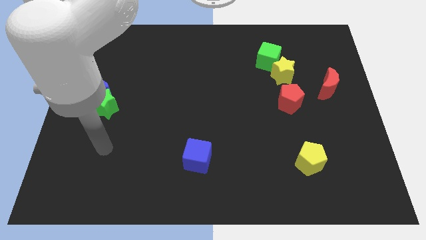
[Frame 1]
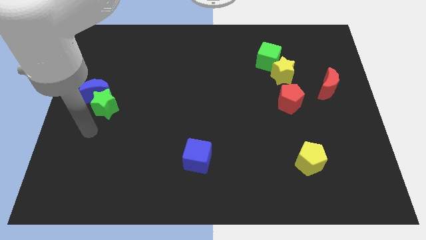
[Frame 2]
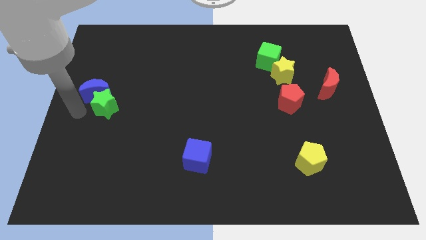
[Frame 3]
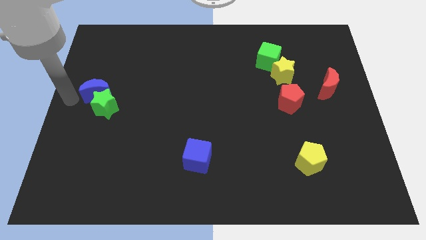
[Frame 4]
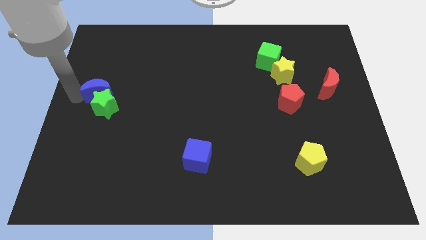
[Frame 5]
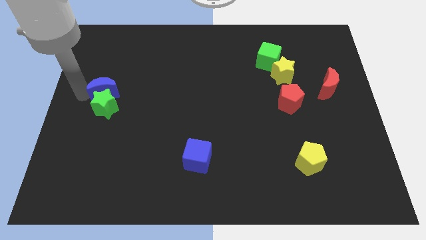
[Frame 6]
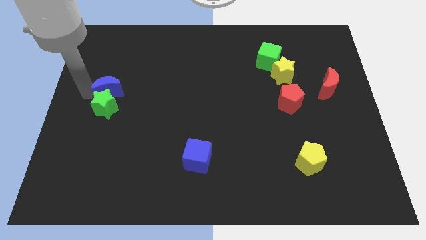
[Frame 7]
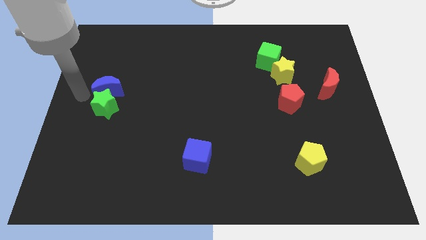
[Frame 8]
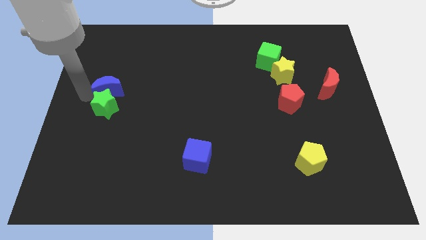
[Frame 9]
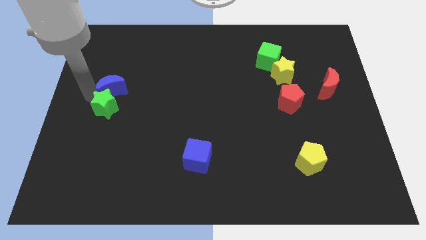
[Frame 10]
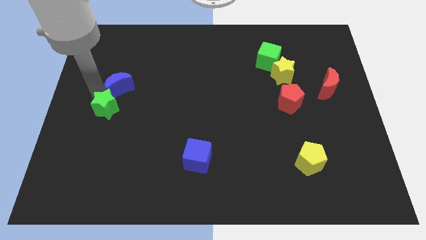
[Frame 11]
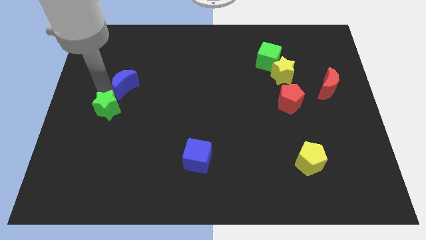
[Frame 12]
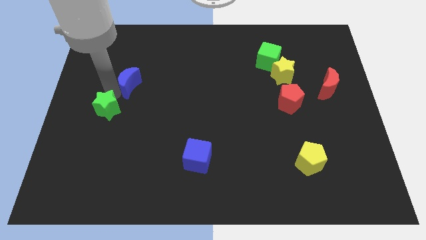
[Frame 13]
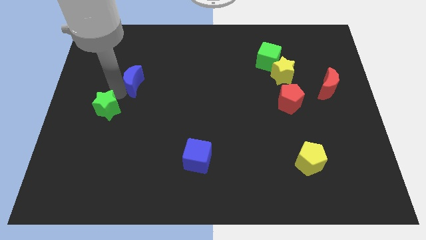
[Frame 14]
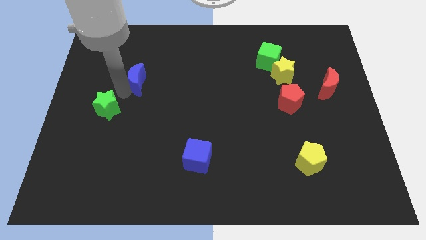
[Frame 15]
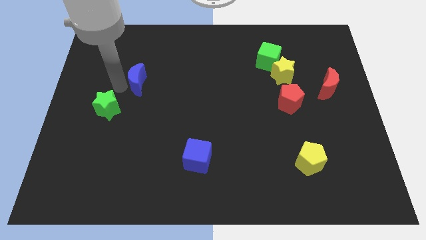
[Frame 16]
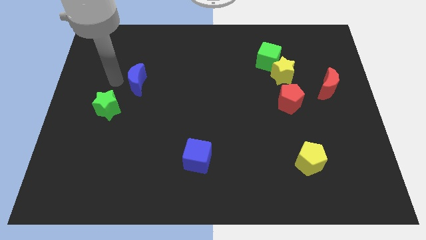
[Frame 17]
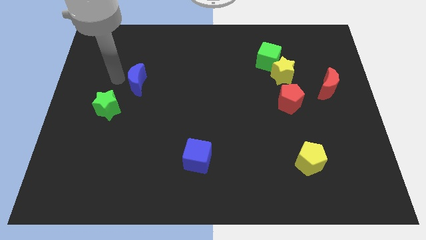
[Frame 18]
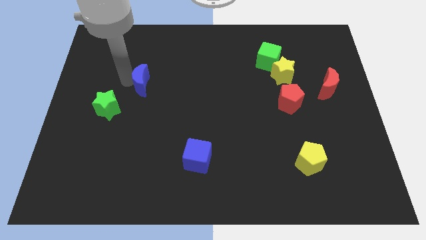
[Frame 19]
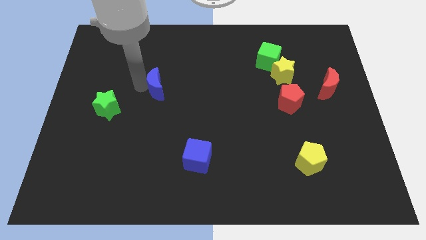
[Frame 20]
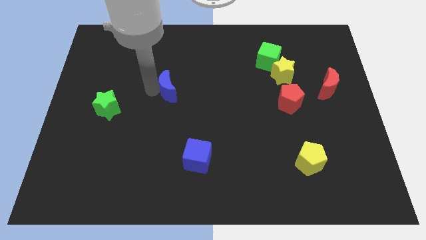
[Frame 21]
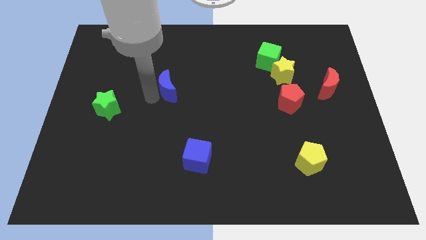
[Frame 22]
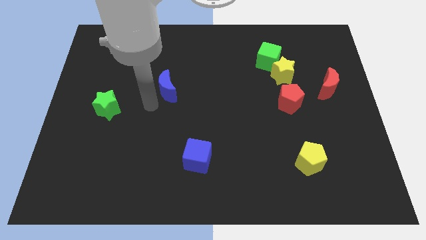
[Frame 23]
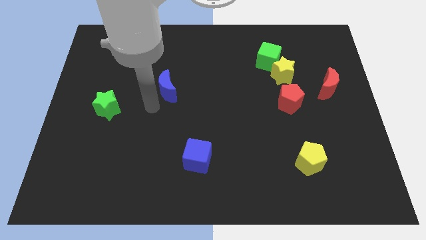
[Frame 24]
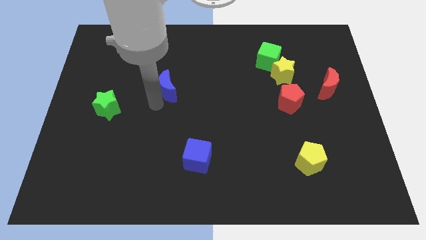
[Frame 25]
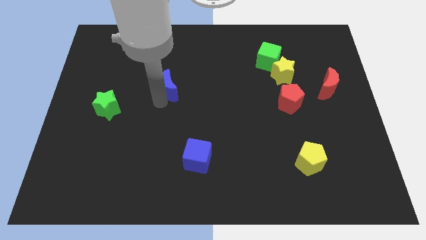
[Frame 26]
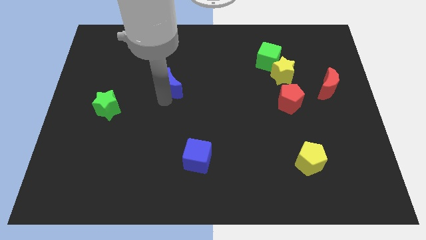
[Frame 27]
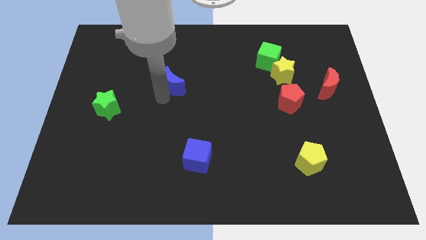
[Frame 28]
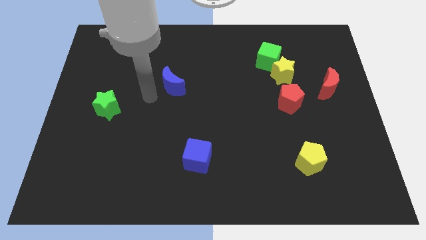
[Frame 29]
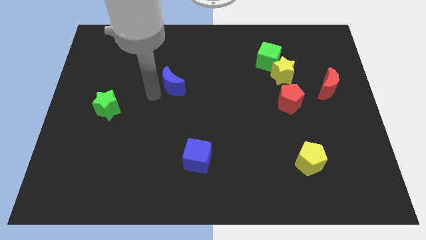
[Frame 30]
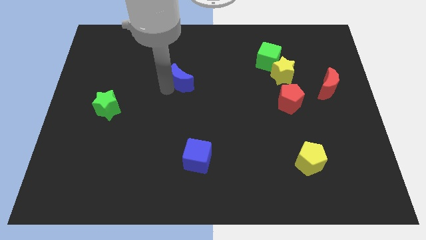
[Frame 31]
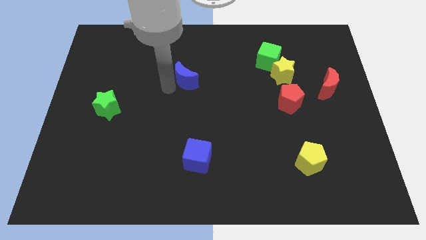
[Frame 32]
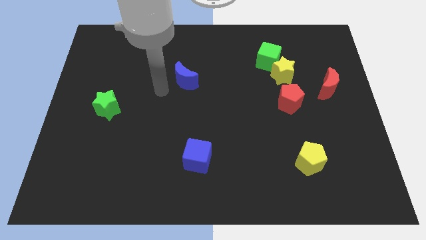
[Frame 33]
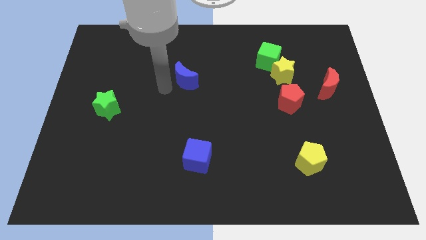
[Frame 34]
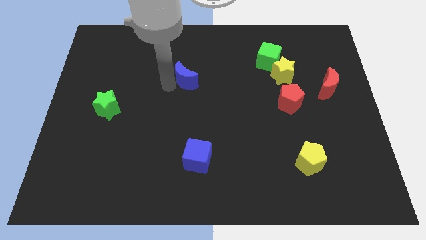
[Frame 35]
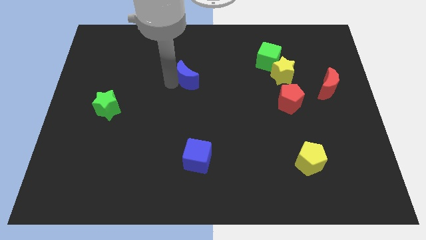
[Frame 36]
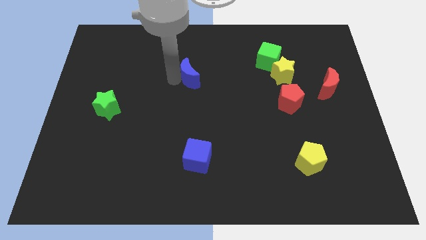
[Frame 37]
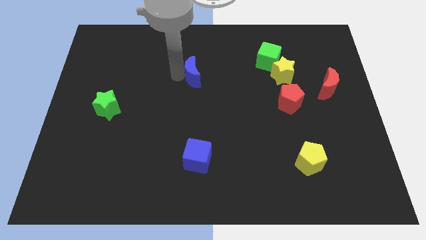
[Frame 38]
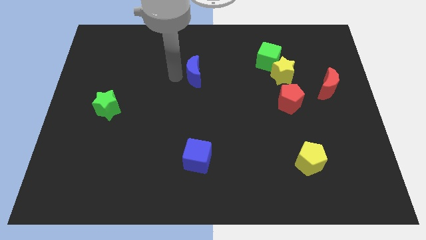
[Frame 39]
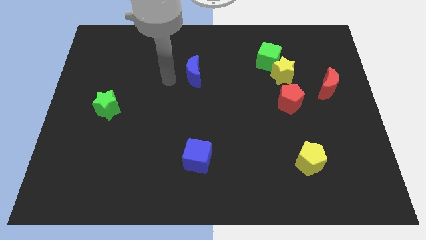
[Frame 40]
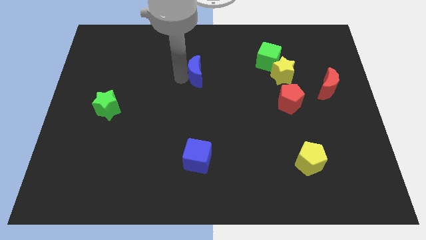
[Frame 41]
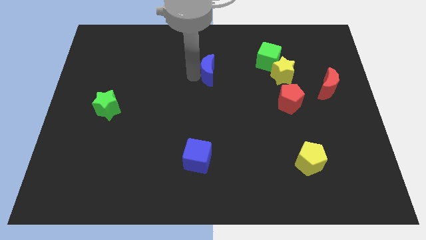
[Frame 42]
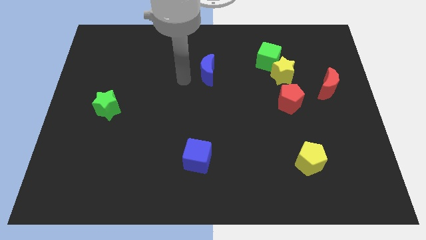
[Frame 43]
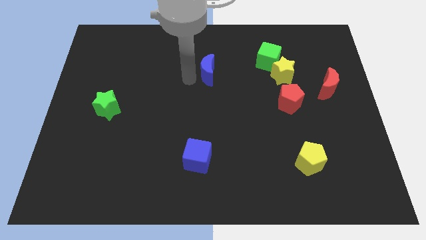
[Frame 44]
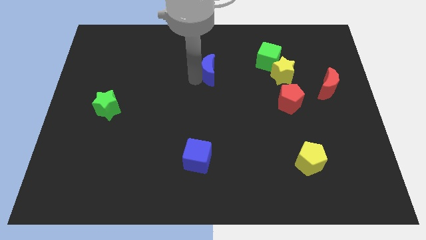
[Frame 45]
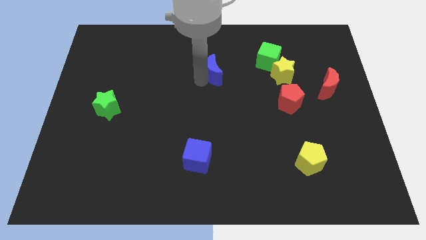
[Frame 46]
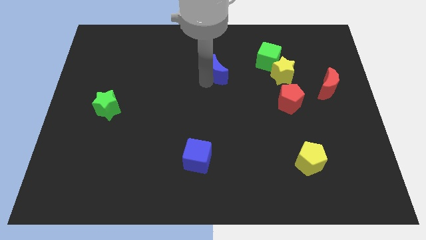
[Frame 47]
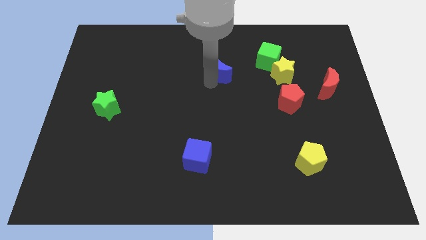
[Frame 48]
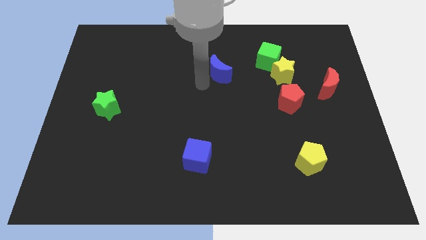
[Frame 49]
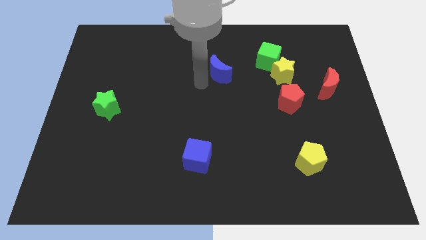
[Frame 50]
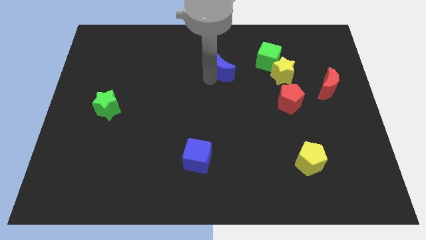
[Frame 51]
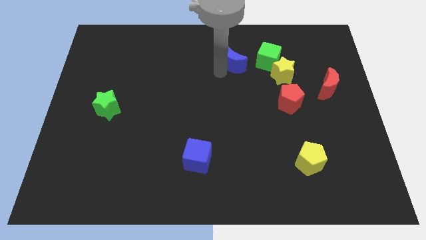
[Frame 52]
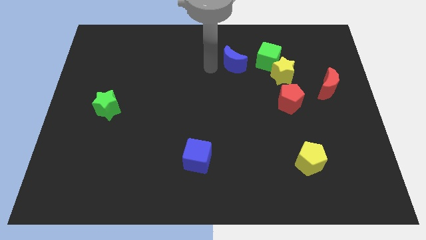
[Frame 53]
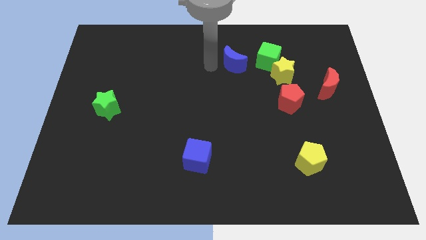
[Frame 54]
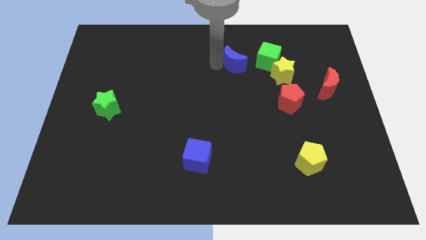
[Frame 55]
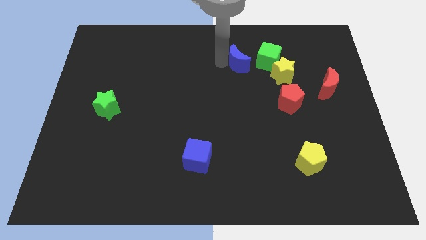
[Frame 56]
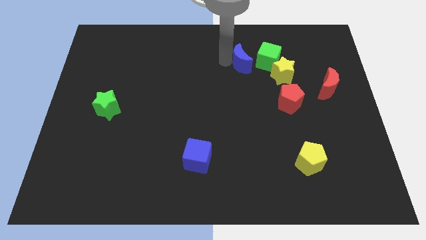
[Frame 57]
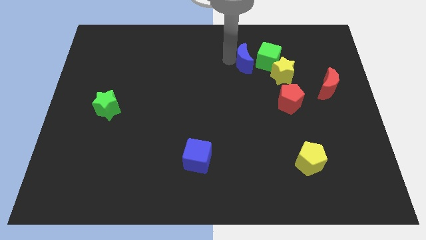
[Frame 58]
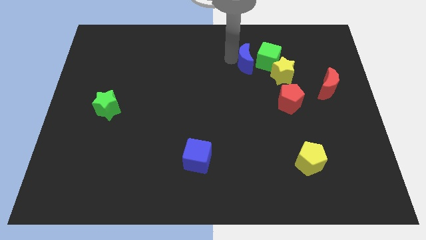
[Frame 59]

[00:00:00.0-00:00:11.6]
put the blue moon to the green cube

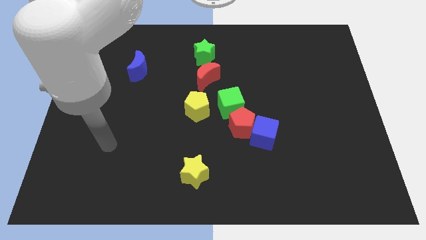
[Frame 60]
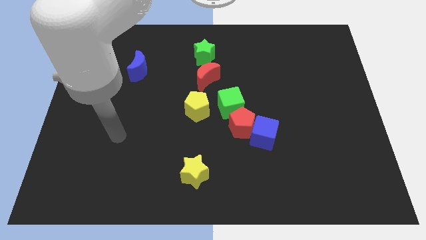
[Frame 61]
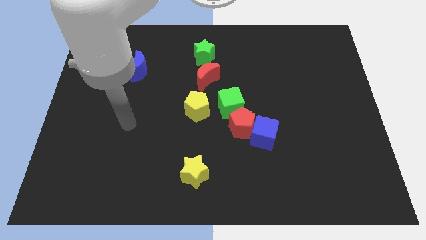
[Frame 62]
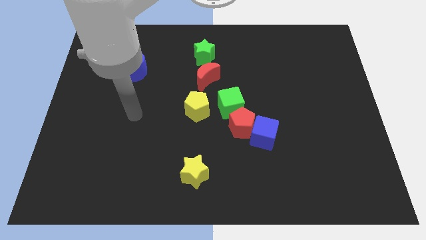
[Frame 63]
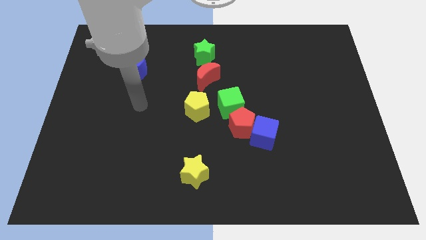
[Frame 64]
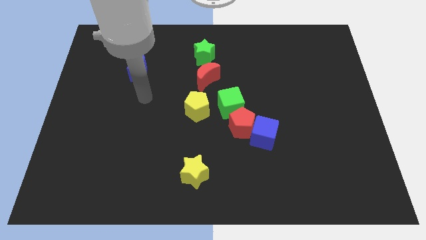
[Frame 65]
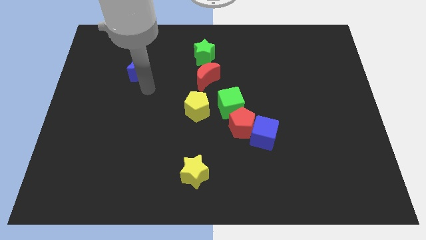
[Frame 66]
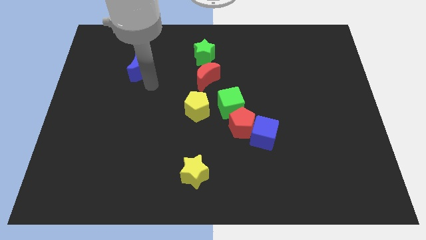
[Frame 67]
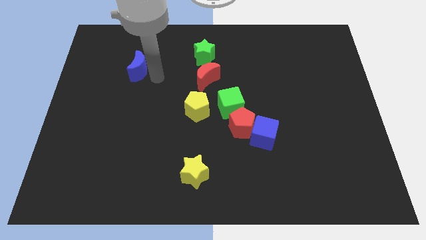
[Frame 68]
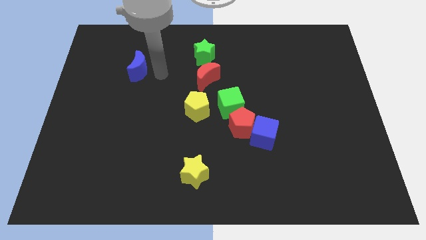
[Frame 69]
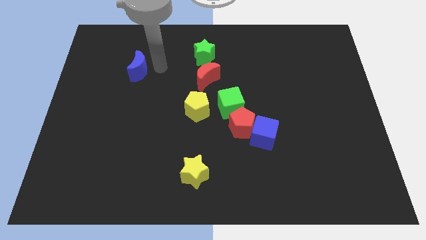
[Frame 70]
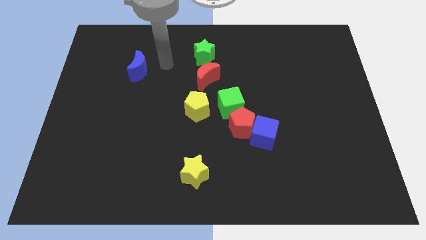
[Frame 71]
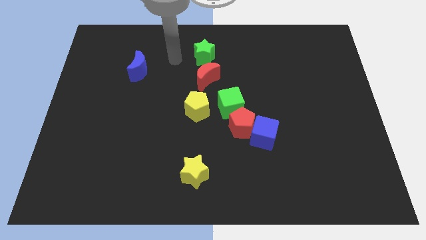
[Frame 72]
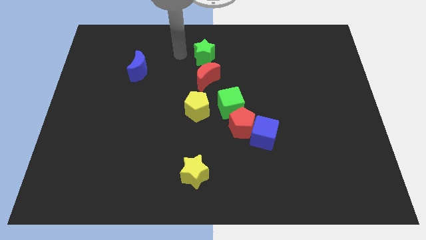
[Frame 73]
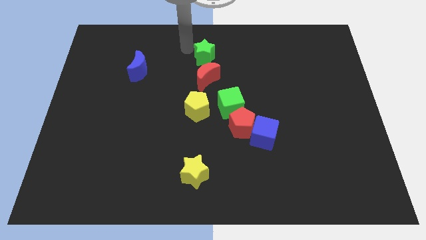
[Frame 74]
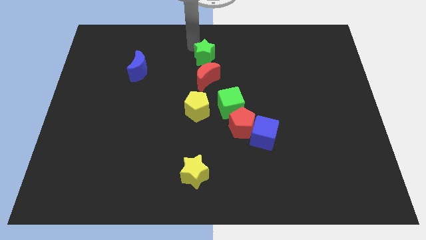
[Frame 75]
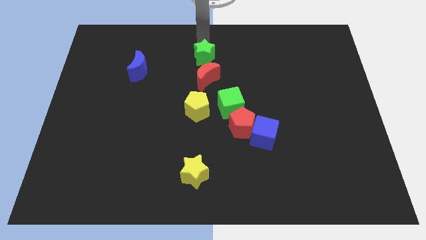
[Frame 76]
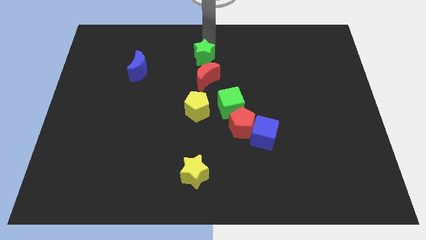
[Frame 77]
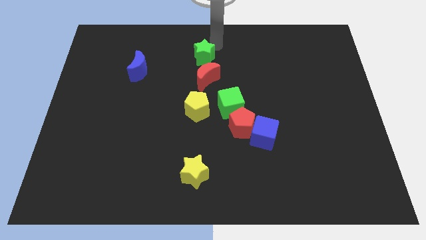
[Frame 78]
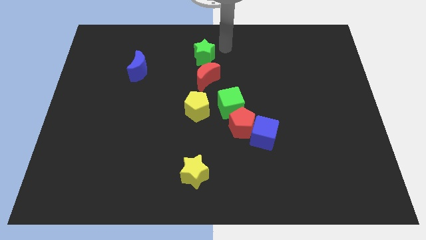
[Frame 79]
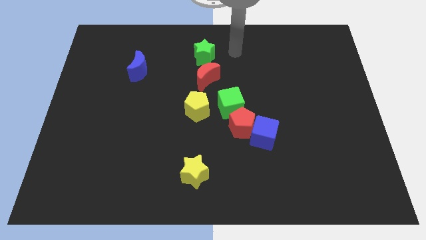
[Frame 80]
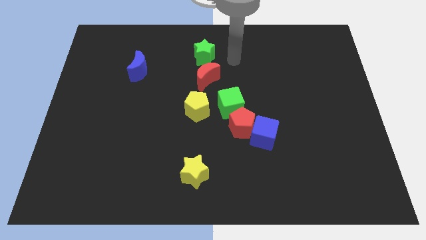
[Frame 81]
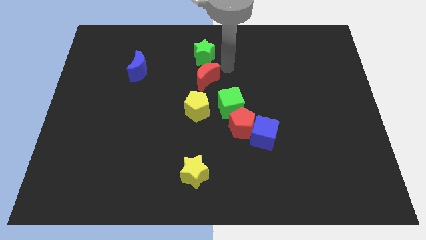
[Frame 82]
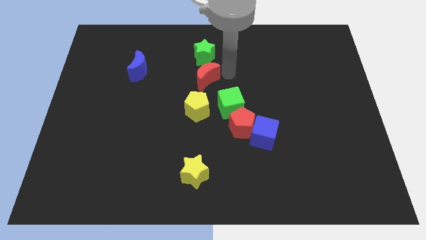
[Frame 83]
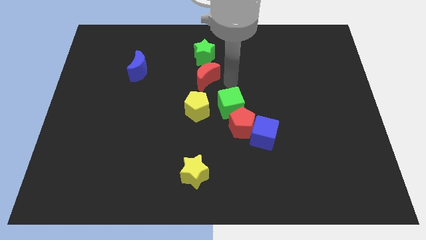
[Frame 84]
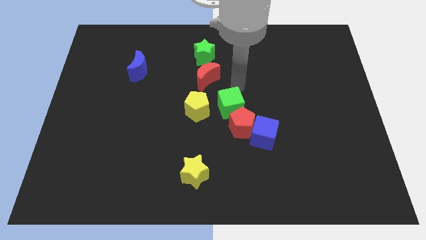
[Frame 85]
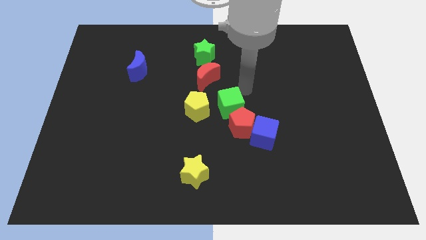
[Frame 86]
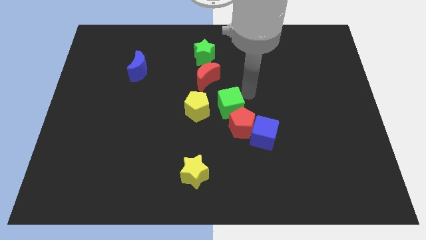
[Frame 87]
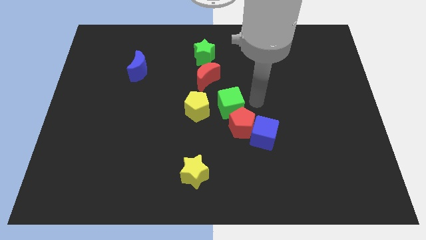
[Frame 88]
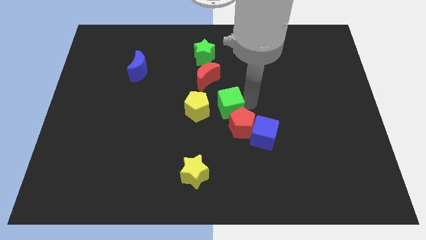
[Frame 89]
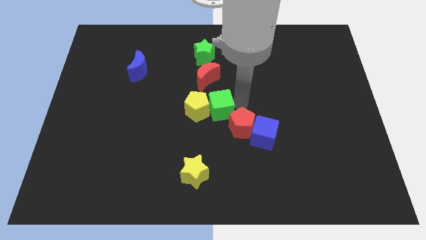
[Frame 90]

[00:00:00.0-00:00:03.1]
slide the green cube towards the yellow pentagon
